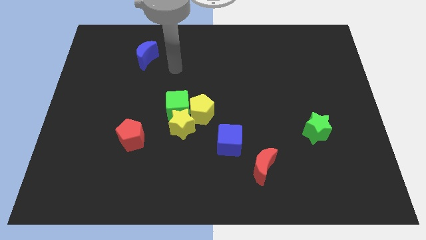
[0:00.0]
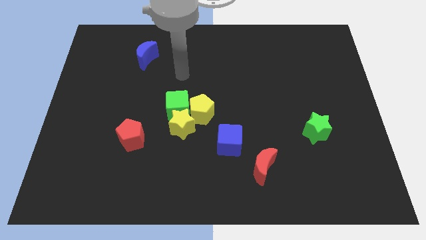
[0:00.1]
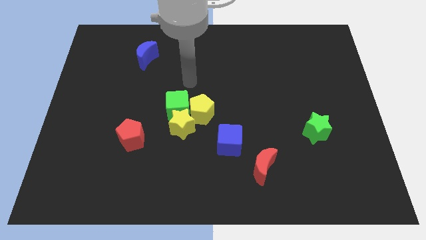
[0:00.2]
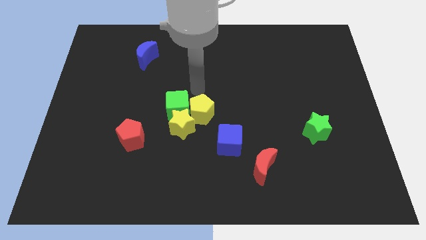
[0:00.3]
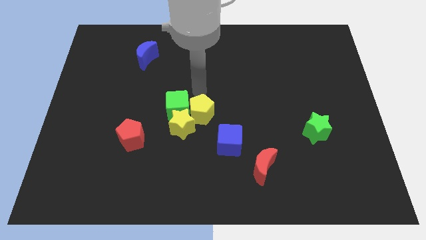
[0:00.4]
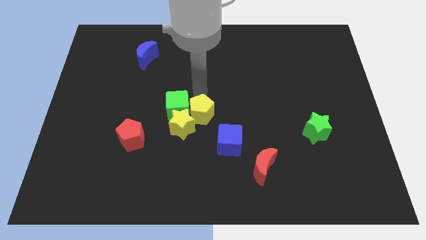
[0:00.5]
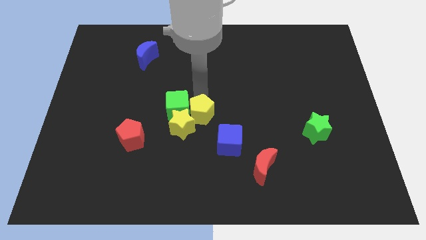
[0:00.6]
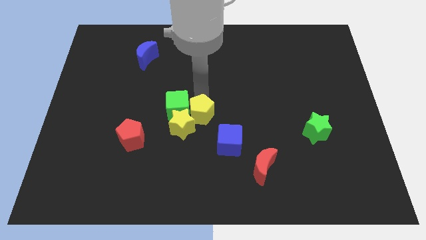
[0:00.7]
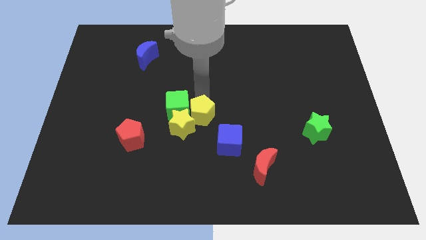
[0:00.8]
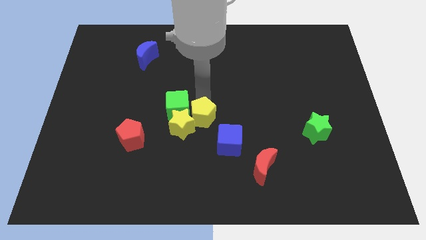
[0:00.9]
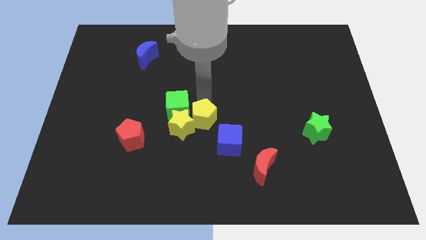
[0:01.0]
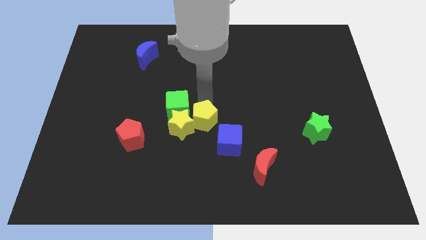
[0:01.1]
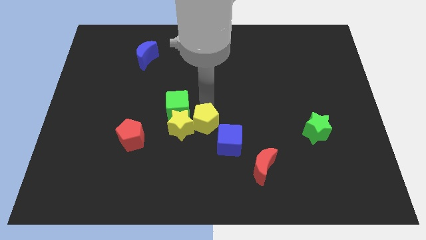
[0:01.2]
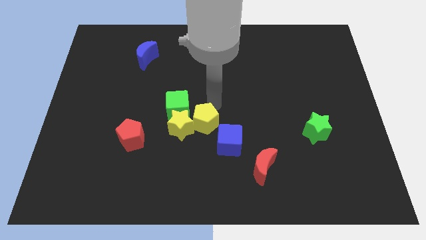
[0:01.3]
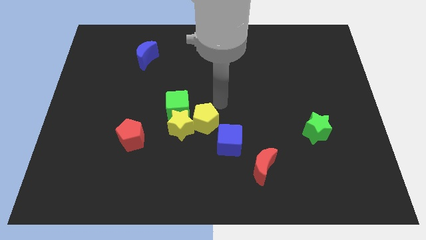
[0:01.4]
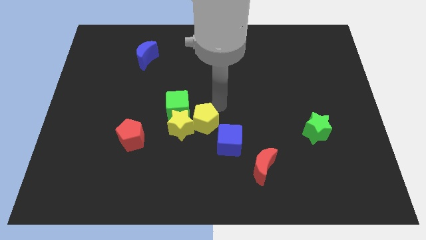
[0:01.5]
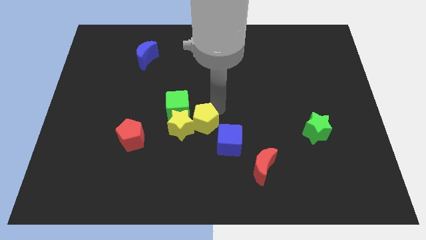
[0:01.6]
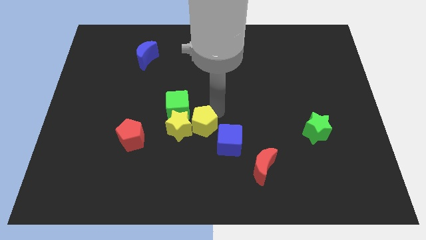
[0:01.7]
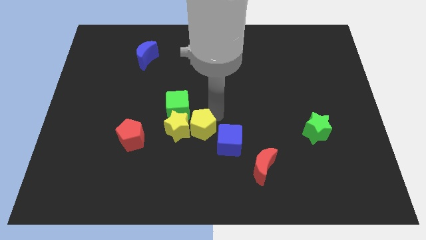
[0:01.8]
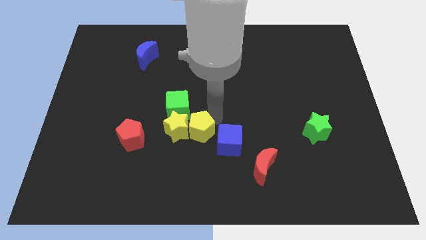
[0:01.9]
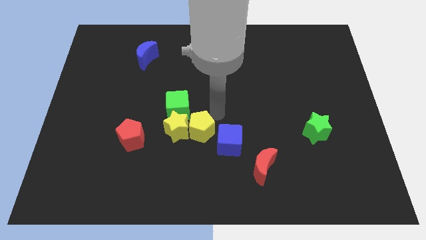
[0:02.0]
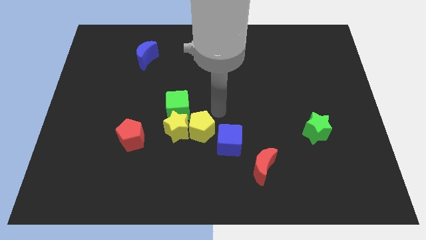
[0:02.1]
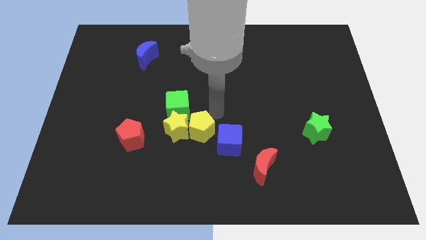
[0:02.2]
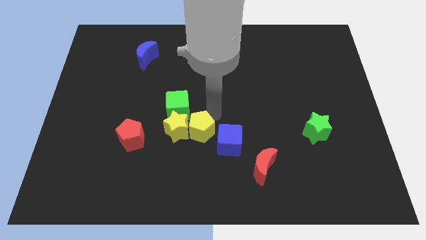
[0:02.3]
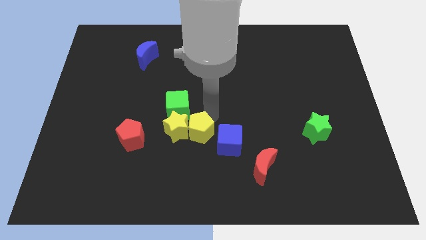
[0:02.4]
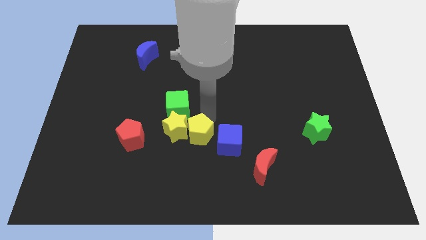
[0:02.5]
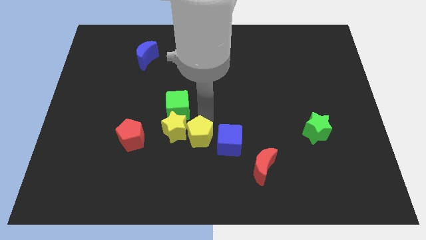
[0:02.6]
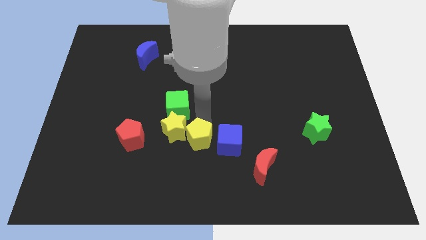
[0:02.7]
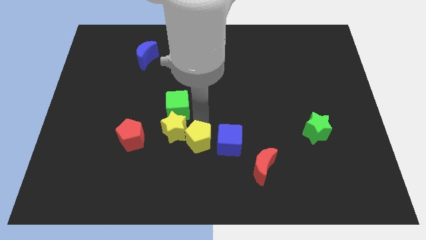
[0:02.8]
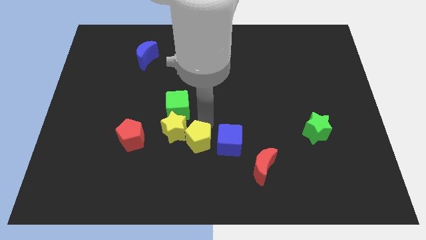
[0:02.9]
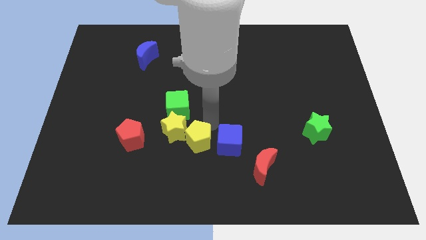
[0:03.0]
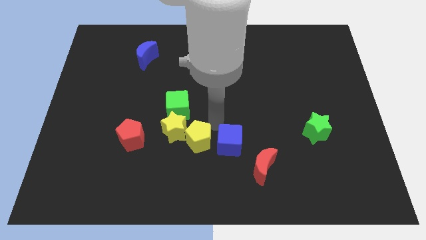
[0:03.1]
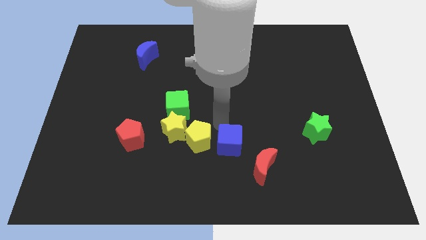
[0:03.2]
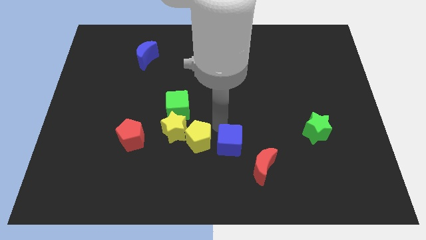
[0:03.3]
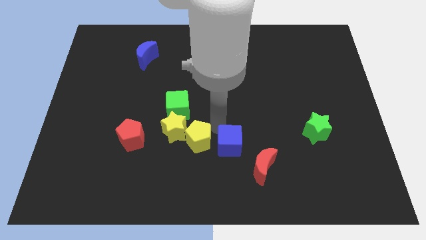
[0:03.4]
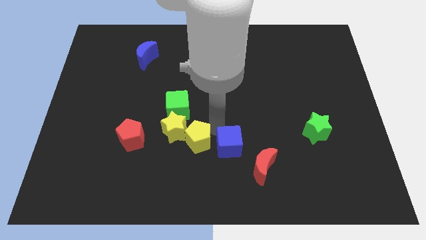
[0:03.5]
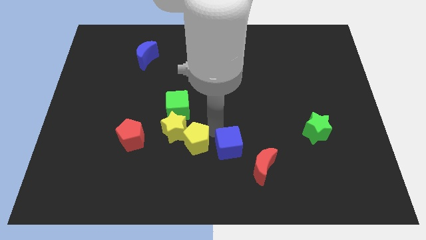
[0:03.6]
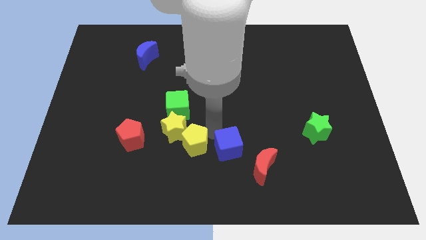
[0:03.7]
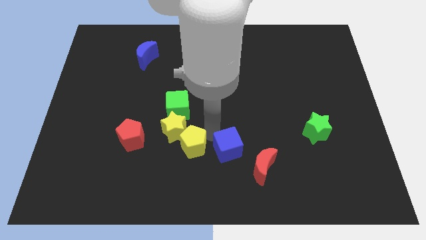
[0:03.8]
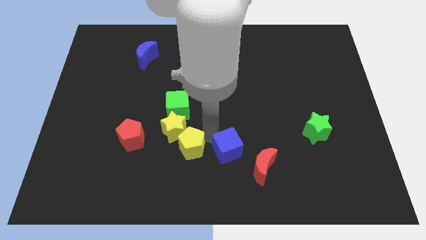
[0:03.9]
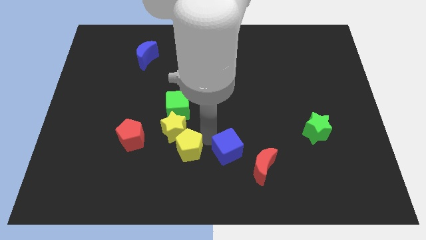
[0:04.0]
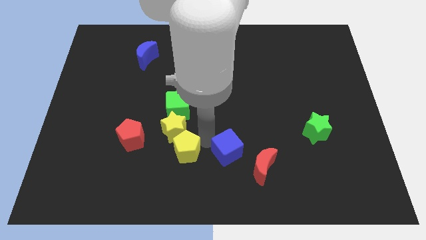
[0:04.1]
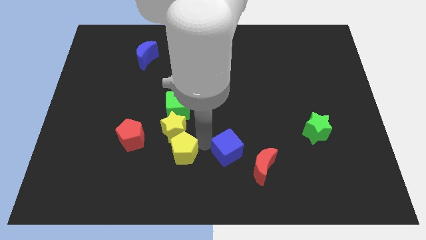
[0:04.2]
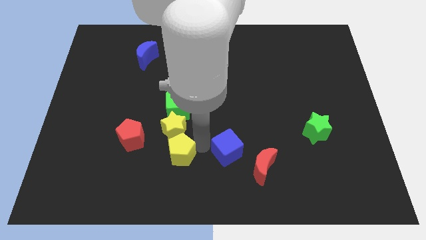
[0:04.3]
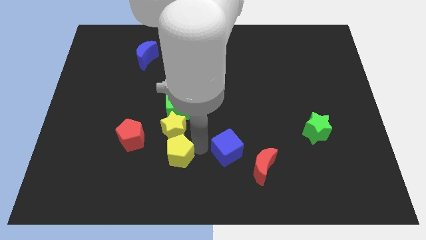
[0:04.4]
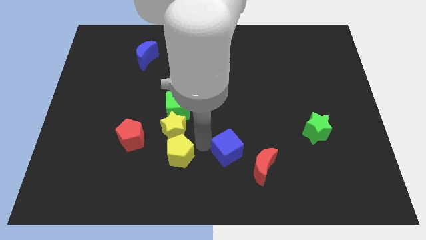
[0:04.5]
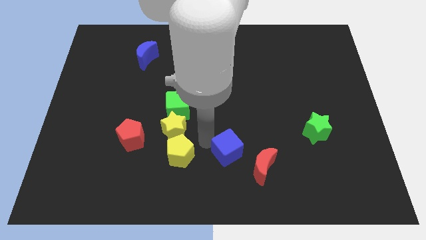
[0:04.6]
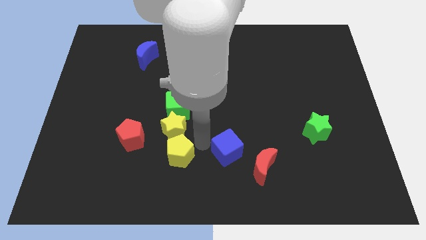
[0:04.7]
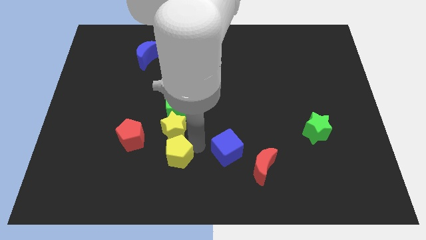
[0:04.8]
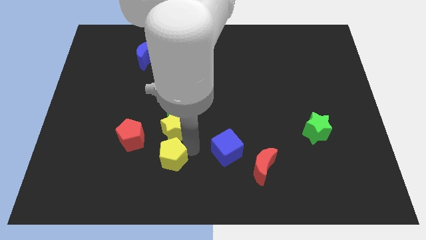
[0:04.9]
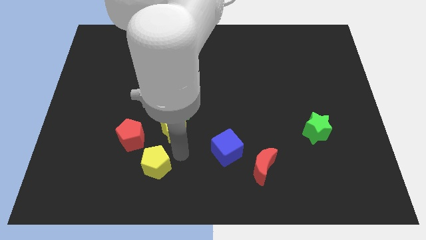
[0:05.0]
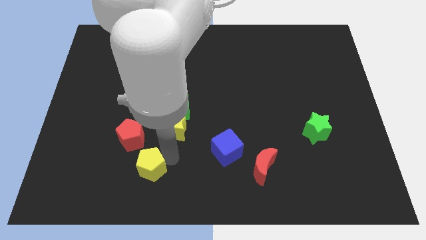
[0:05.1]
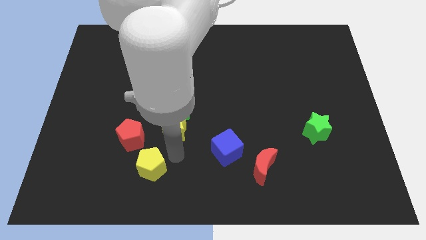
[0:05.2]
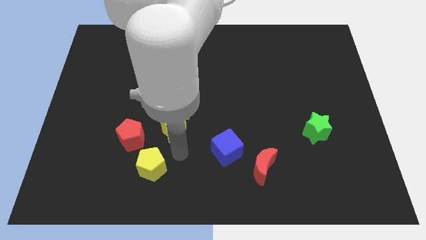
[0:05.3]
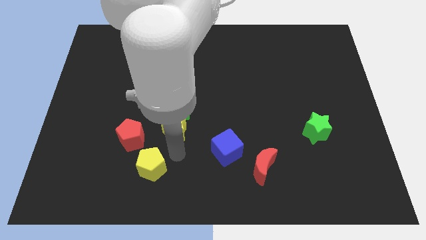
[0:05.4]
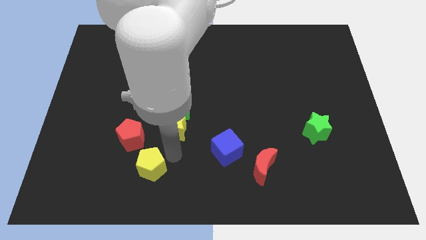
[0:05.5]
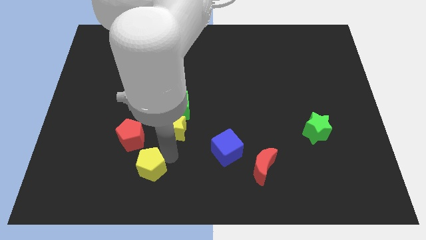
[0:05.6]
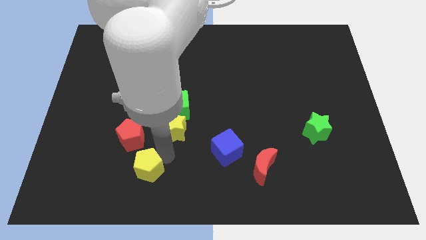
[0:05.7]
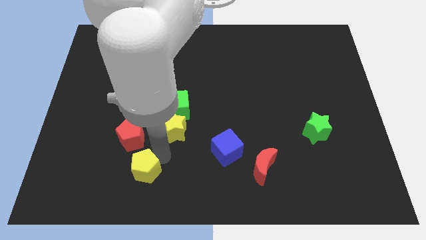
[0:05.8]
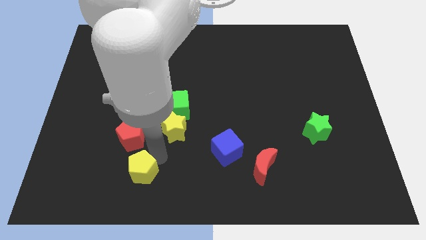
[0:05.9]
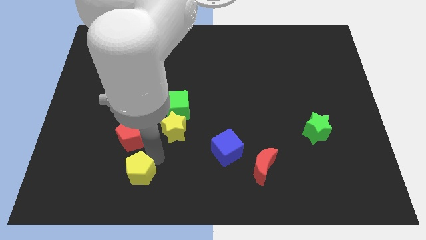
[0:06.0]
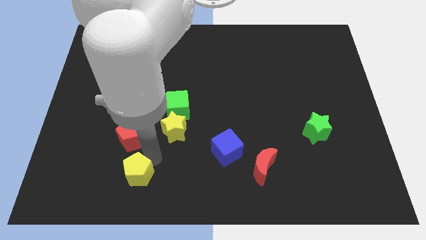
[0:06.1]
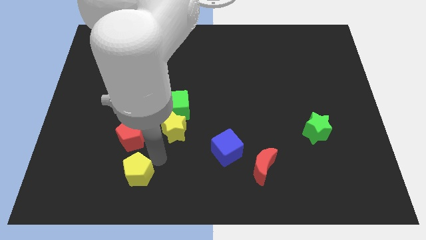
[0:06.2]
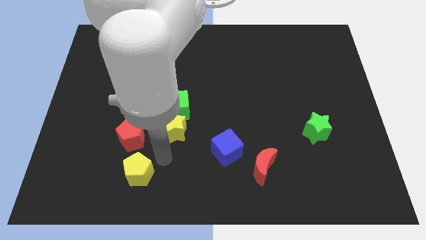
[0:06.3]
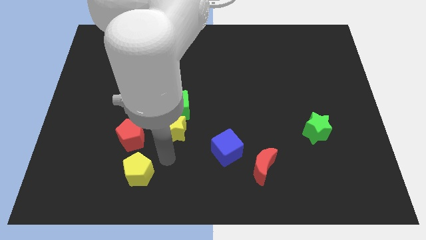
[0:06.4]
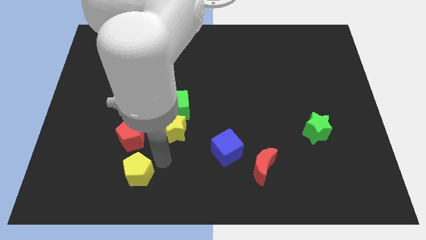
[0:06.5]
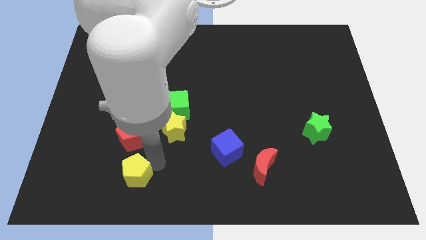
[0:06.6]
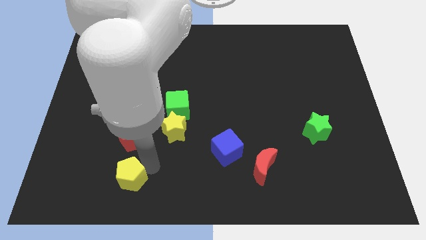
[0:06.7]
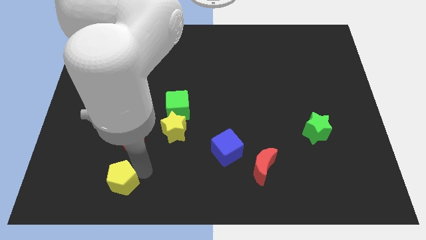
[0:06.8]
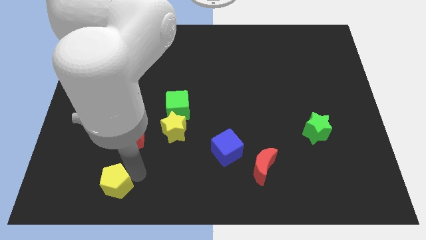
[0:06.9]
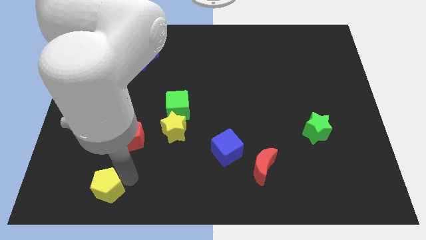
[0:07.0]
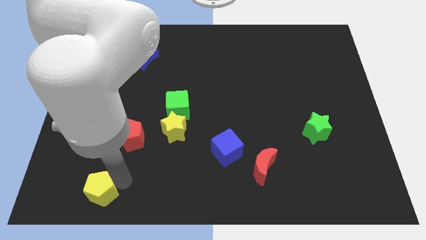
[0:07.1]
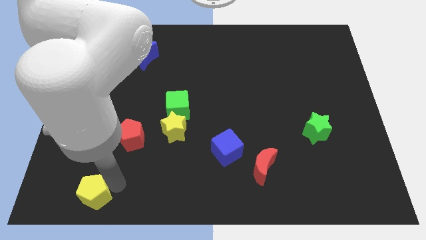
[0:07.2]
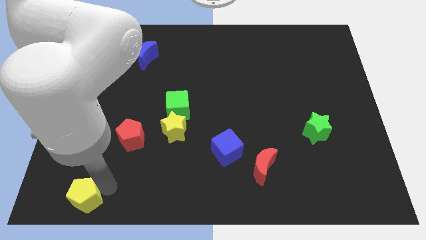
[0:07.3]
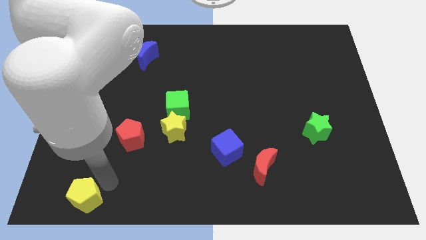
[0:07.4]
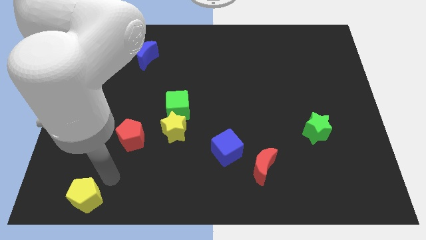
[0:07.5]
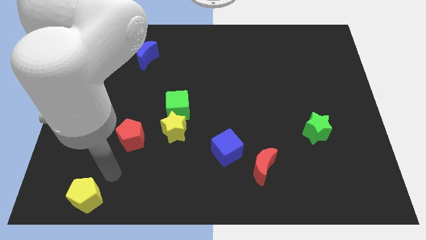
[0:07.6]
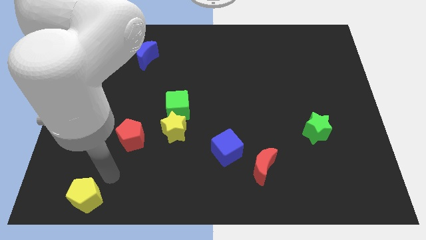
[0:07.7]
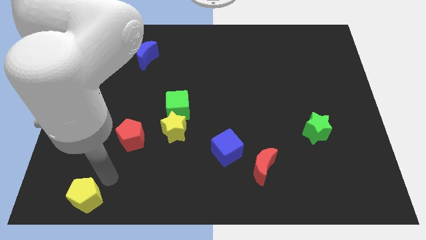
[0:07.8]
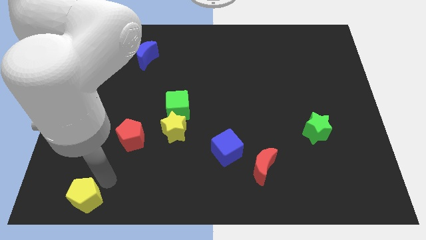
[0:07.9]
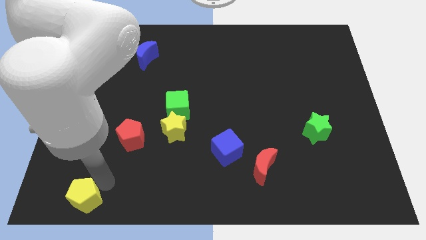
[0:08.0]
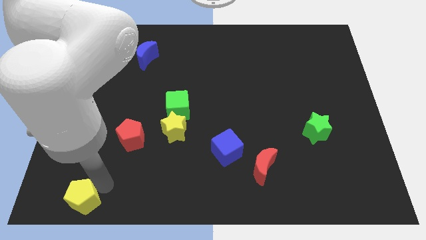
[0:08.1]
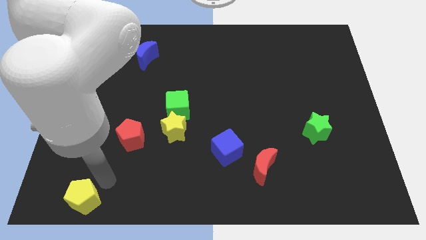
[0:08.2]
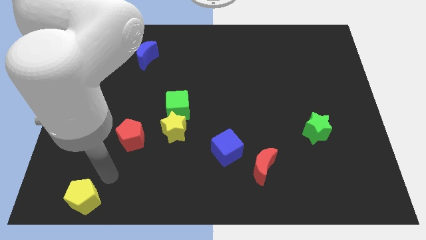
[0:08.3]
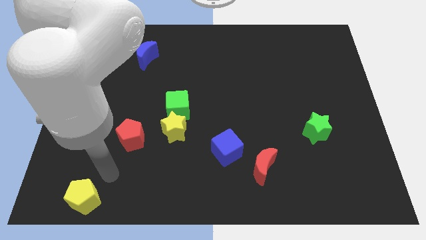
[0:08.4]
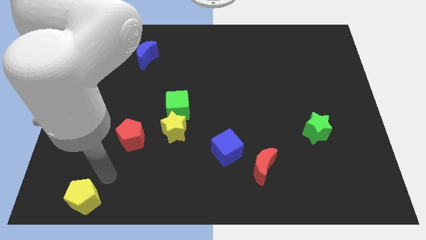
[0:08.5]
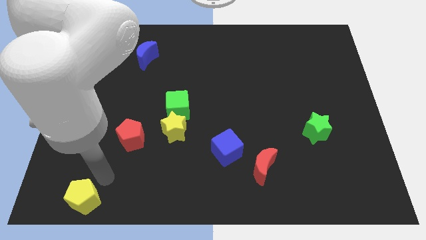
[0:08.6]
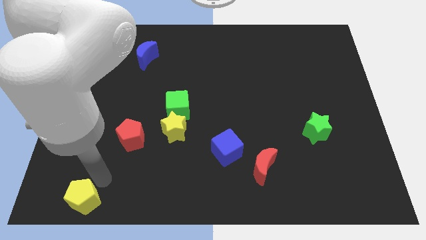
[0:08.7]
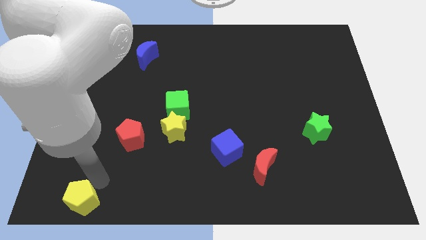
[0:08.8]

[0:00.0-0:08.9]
move the yellow pentagon to the lower left corner
